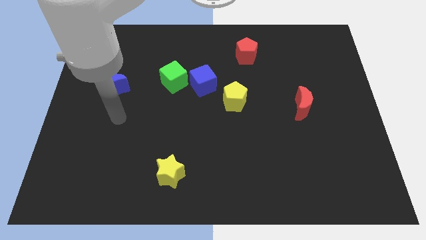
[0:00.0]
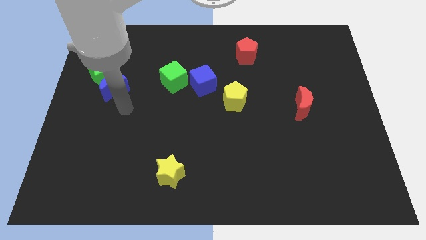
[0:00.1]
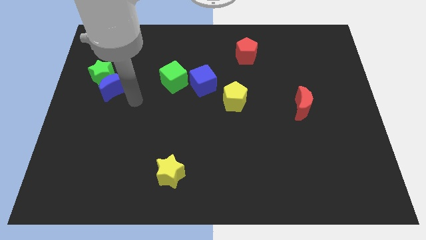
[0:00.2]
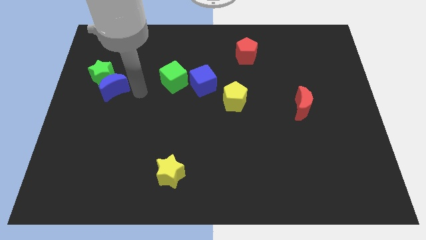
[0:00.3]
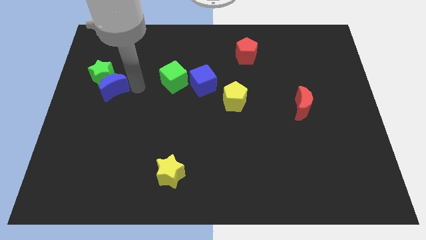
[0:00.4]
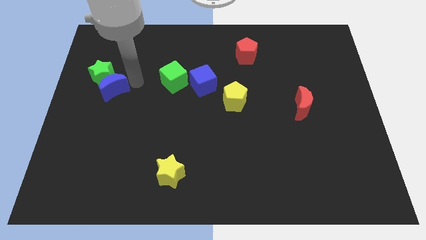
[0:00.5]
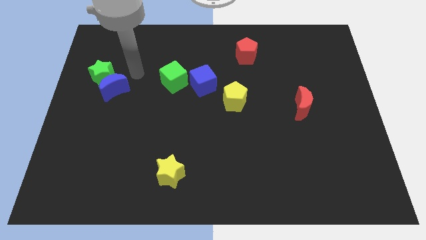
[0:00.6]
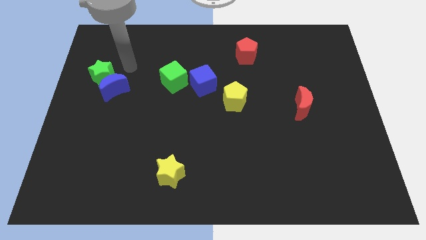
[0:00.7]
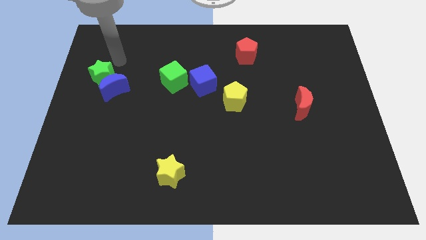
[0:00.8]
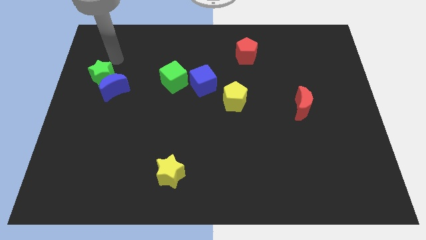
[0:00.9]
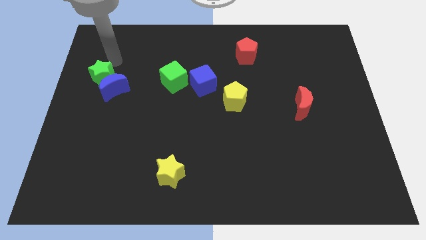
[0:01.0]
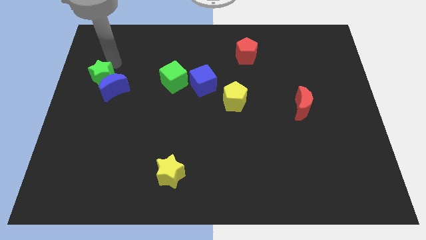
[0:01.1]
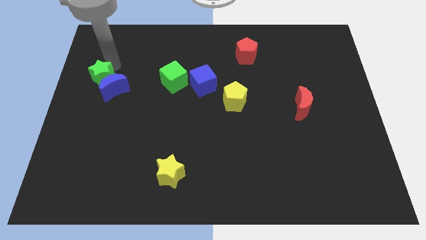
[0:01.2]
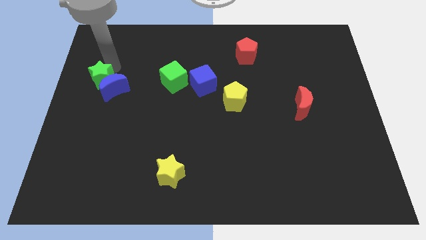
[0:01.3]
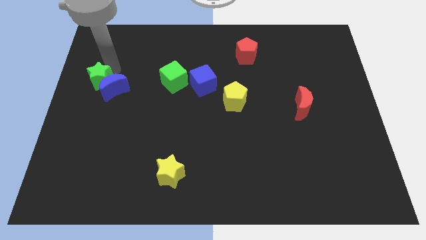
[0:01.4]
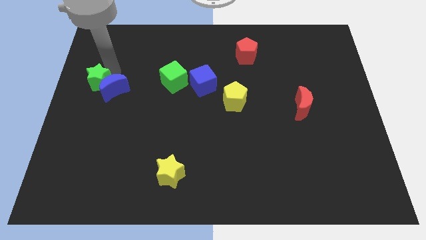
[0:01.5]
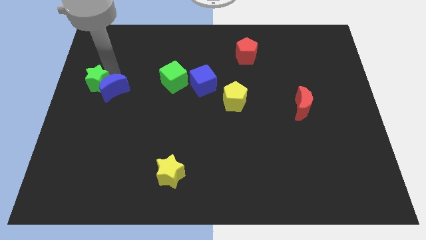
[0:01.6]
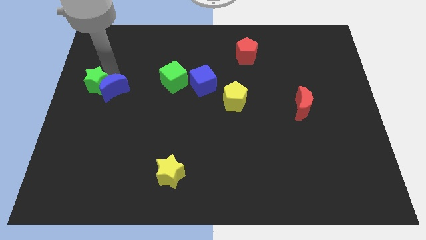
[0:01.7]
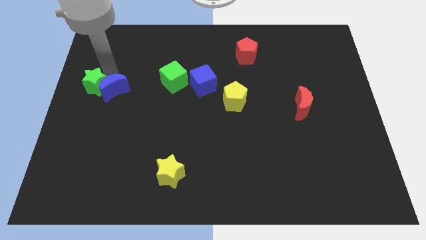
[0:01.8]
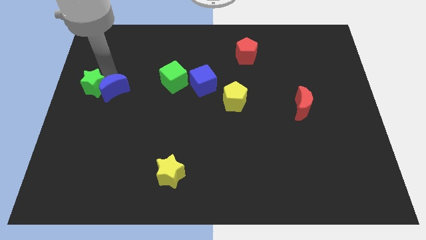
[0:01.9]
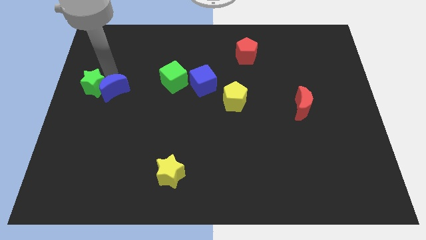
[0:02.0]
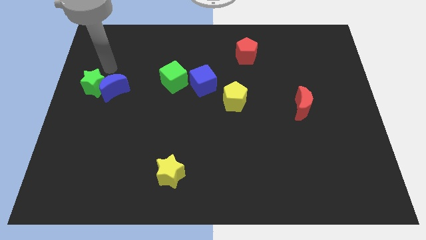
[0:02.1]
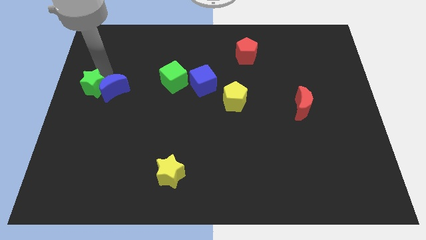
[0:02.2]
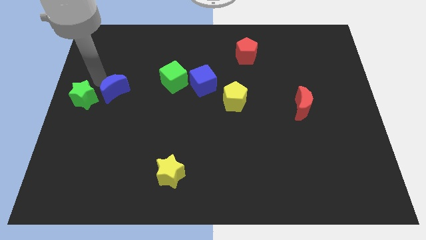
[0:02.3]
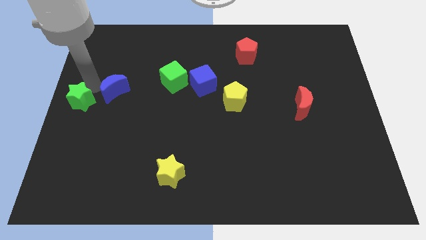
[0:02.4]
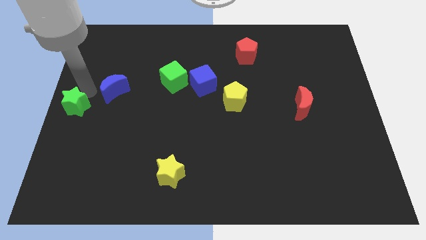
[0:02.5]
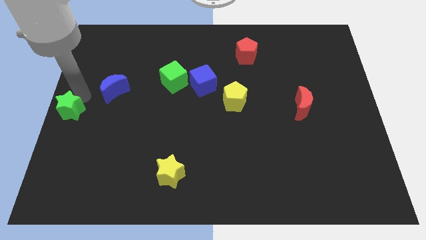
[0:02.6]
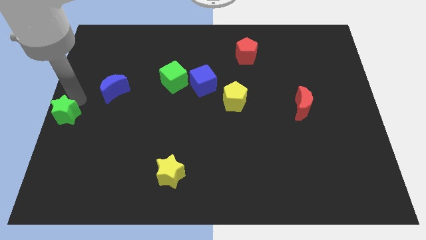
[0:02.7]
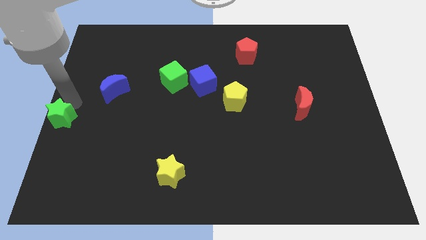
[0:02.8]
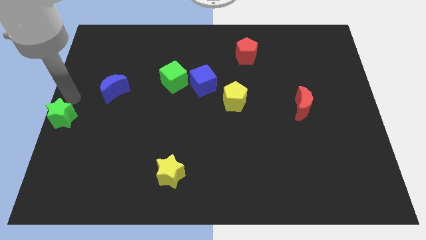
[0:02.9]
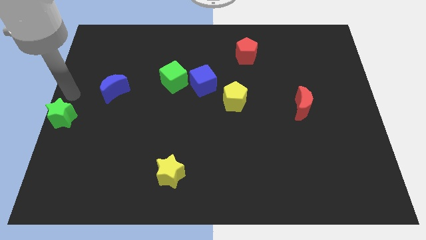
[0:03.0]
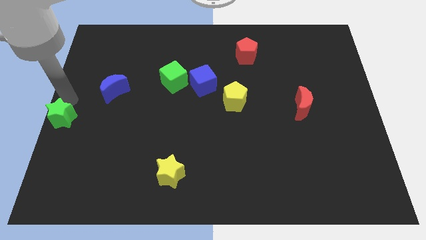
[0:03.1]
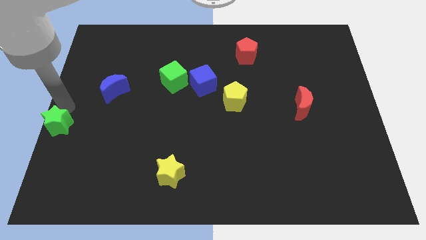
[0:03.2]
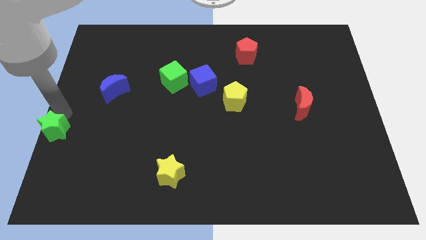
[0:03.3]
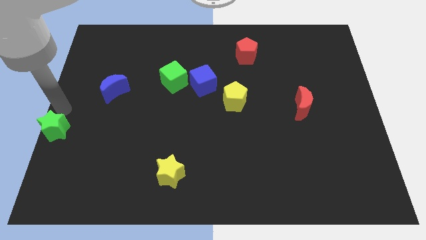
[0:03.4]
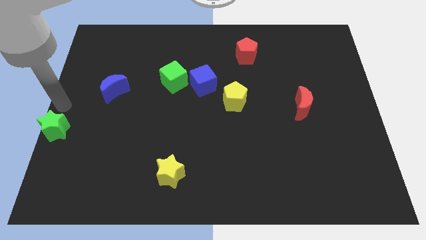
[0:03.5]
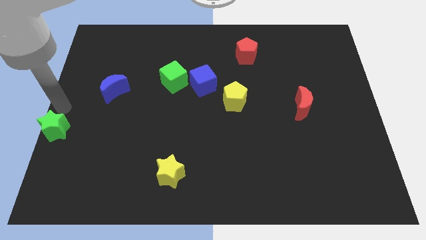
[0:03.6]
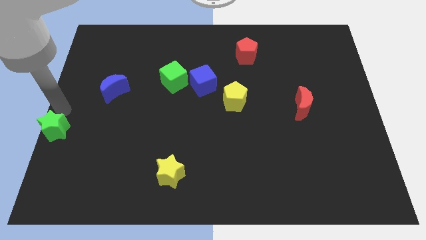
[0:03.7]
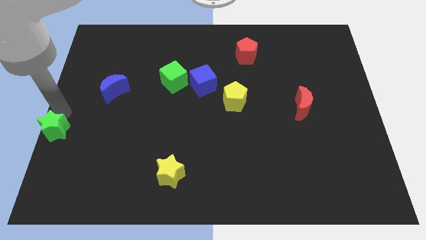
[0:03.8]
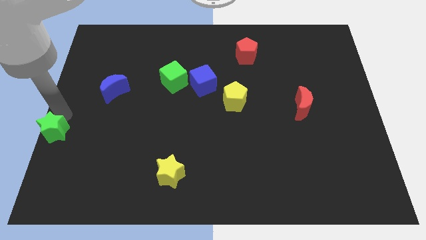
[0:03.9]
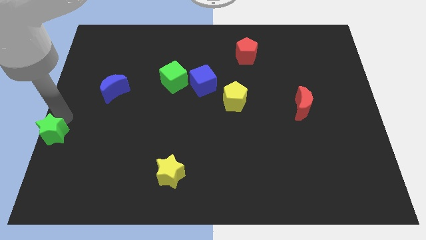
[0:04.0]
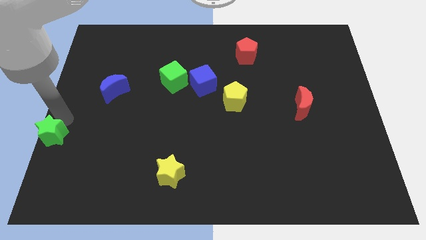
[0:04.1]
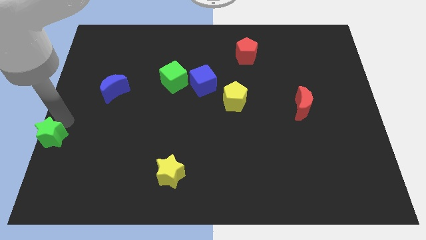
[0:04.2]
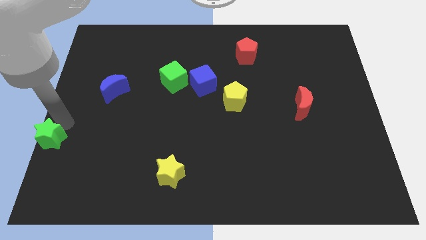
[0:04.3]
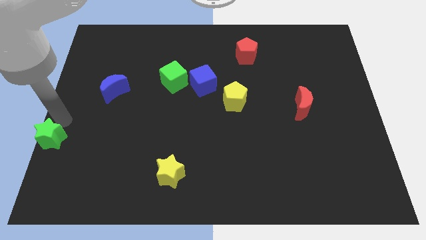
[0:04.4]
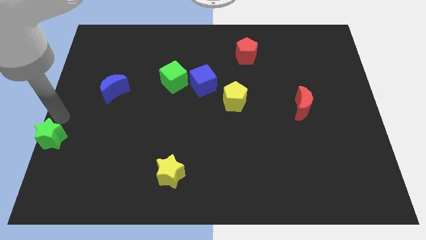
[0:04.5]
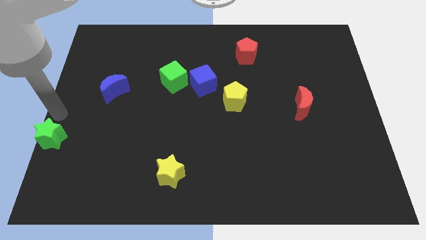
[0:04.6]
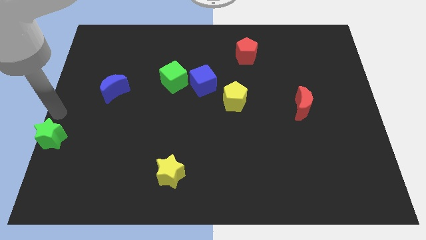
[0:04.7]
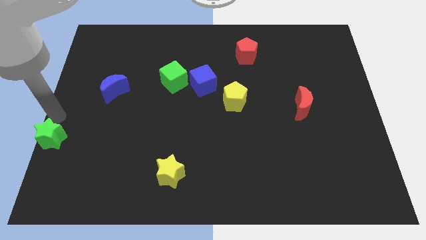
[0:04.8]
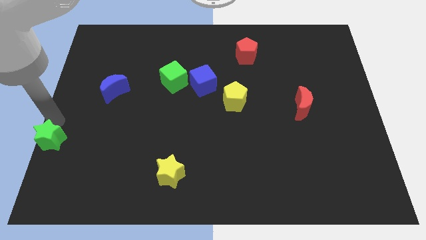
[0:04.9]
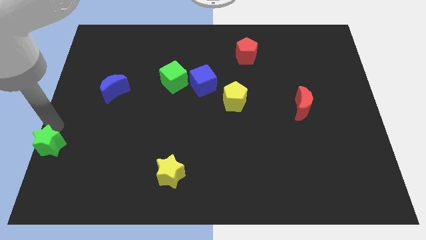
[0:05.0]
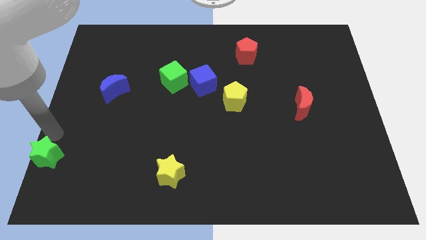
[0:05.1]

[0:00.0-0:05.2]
push the green star to the bottom left

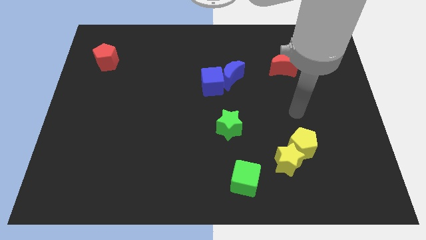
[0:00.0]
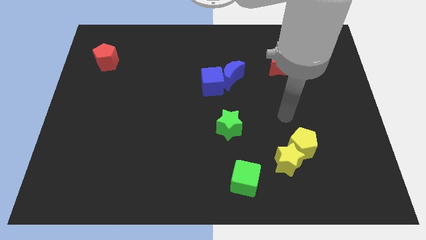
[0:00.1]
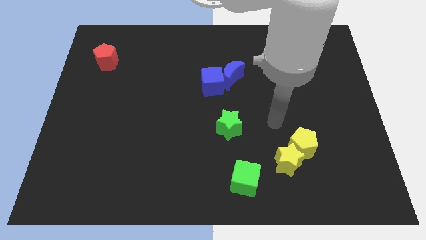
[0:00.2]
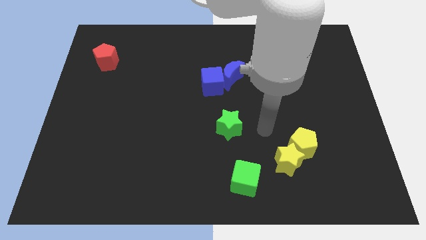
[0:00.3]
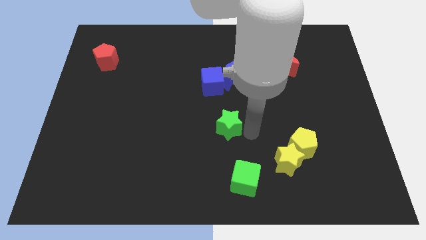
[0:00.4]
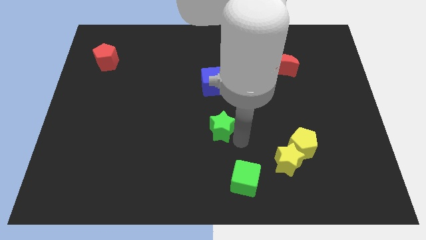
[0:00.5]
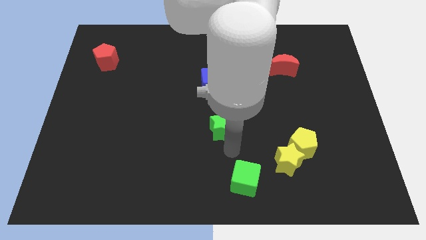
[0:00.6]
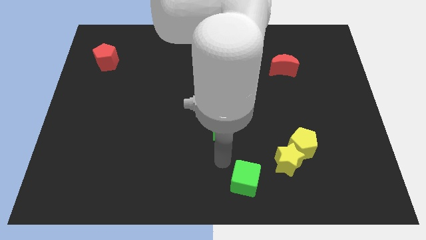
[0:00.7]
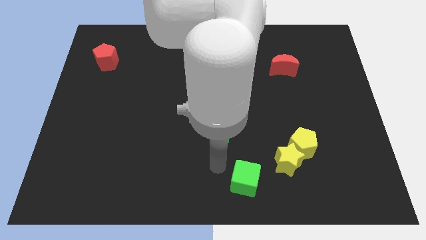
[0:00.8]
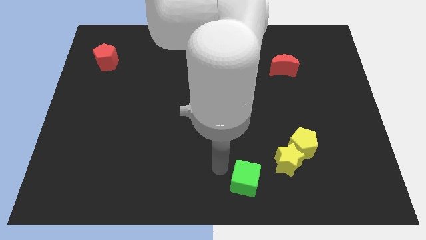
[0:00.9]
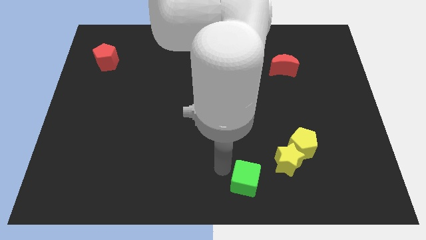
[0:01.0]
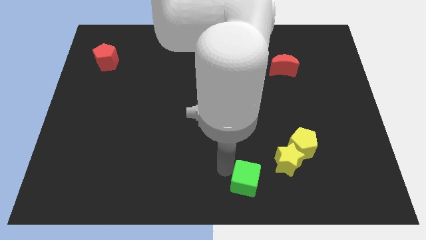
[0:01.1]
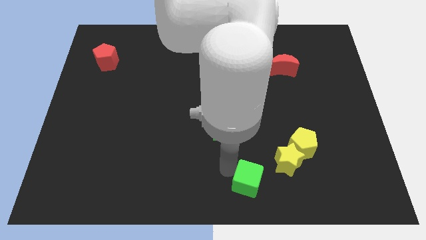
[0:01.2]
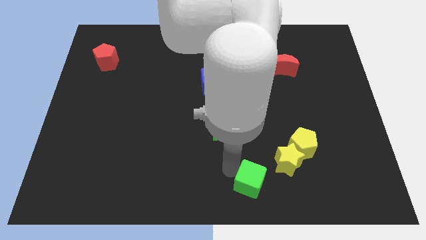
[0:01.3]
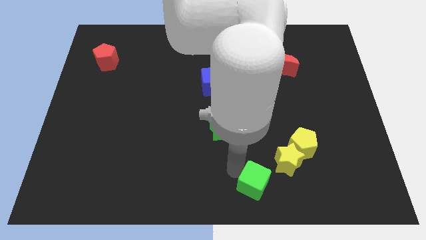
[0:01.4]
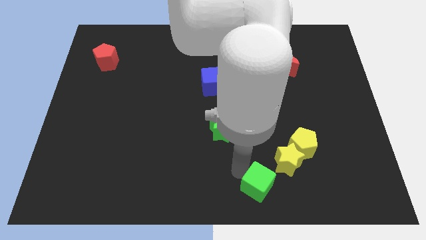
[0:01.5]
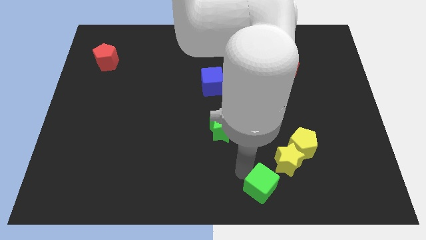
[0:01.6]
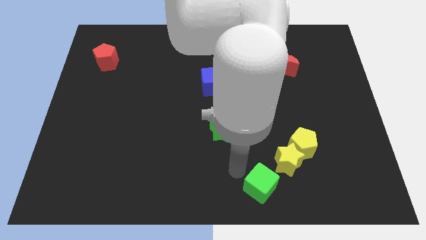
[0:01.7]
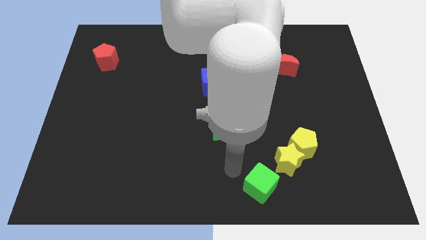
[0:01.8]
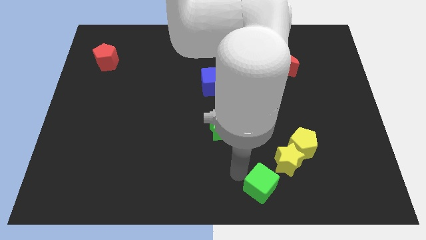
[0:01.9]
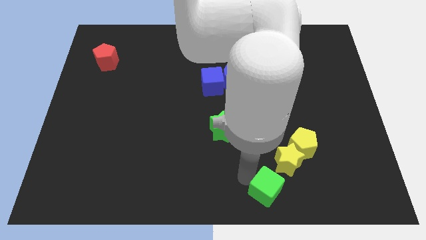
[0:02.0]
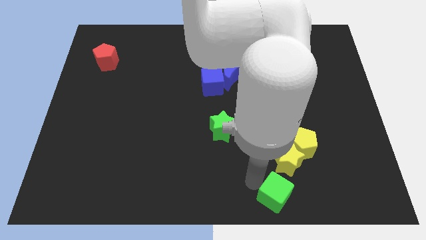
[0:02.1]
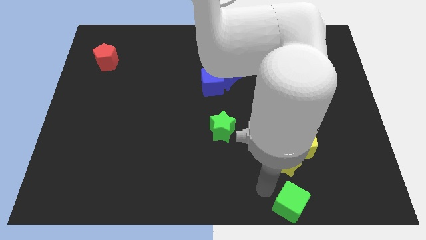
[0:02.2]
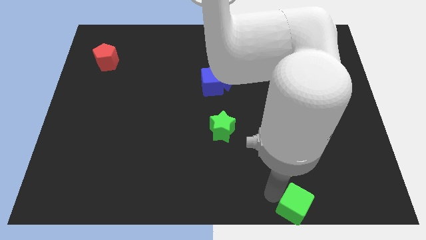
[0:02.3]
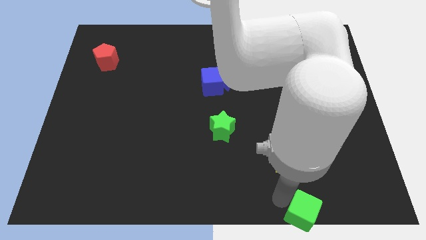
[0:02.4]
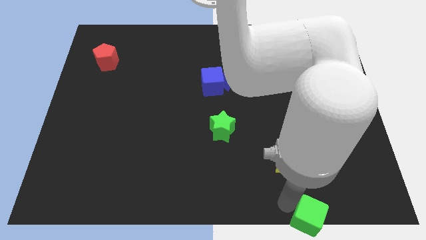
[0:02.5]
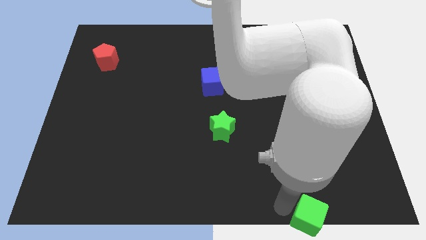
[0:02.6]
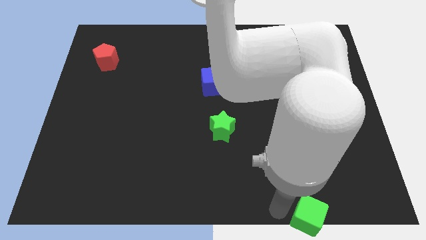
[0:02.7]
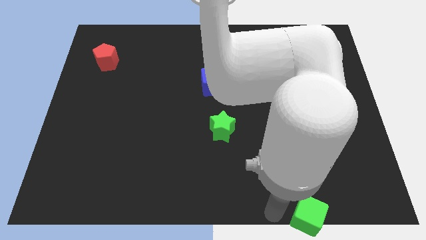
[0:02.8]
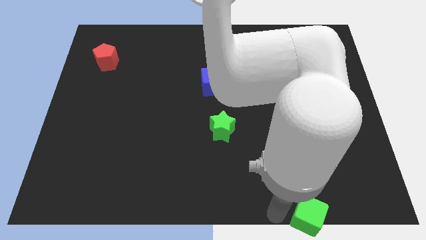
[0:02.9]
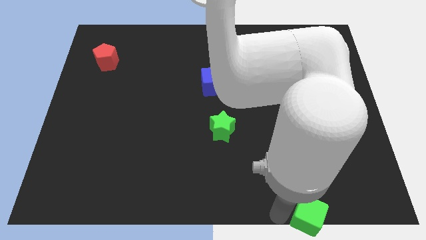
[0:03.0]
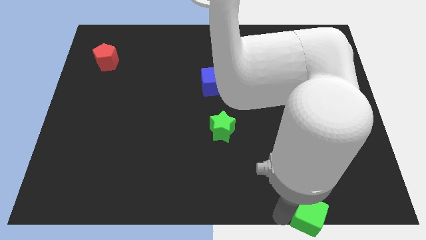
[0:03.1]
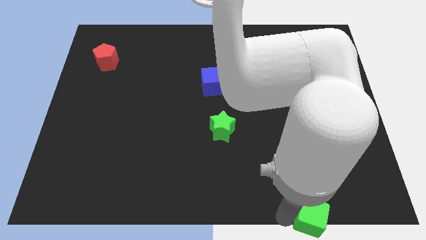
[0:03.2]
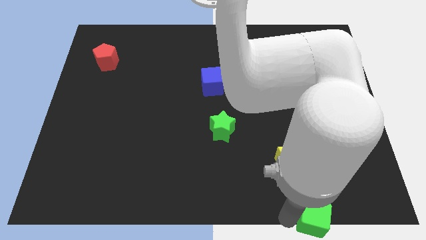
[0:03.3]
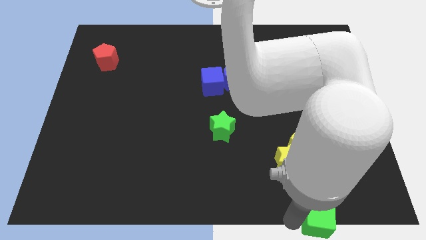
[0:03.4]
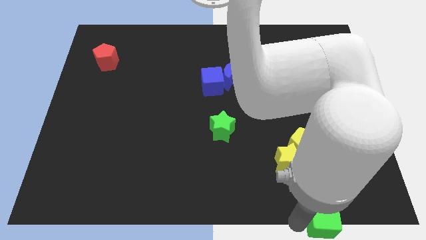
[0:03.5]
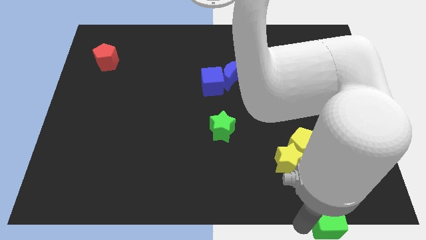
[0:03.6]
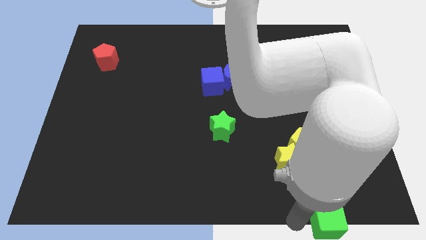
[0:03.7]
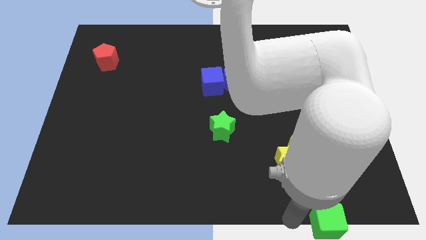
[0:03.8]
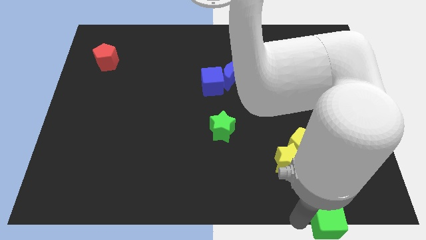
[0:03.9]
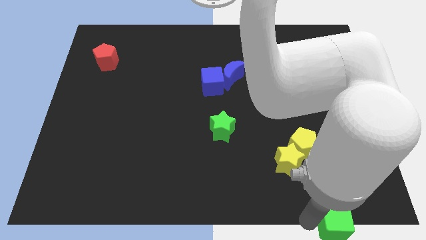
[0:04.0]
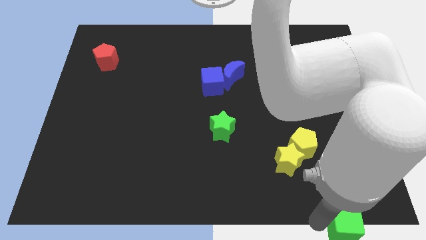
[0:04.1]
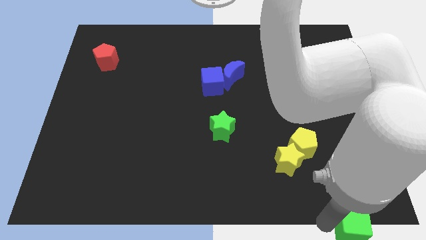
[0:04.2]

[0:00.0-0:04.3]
put the green cube to the lower right corner
